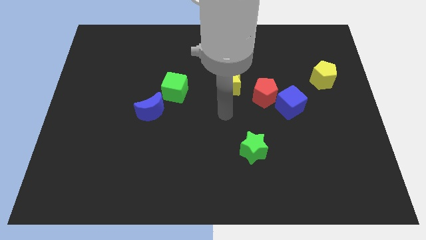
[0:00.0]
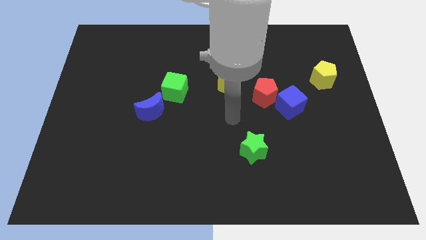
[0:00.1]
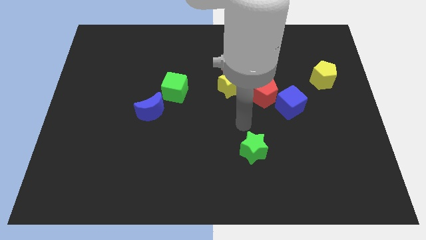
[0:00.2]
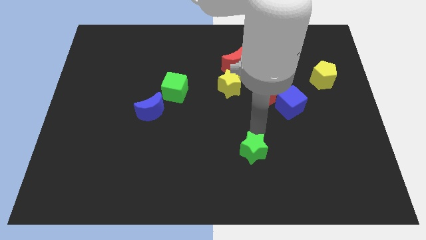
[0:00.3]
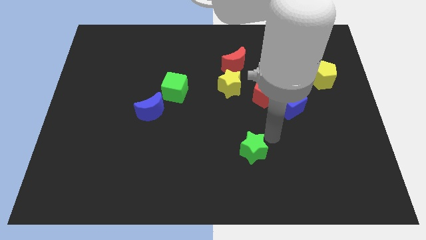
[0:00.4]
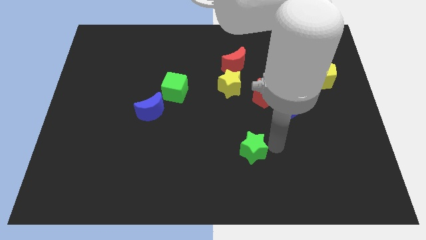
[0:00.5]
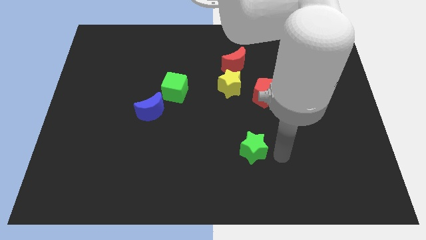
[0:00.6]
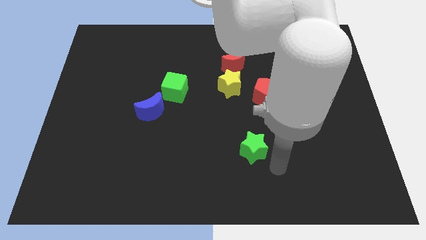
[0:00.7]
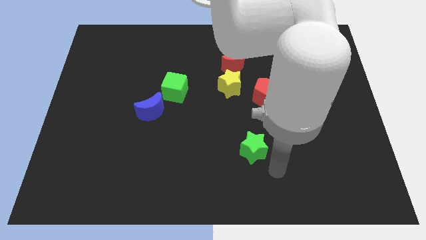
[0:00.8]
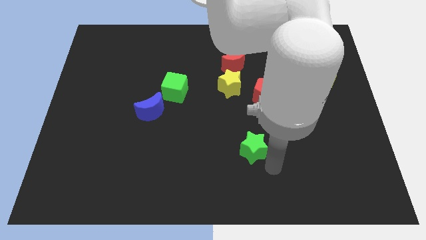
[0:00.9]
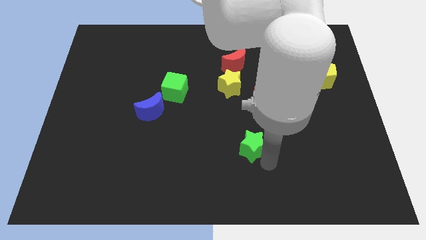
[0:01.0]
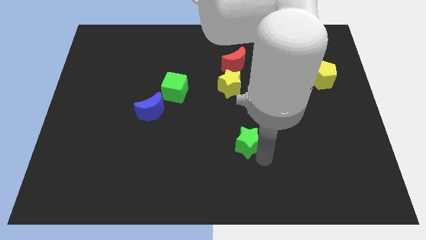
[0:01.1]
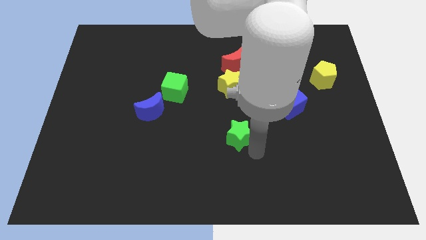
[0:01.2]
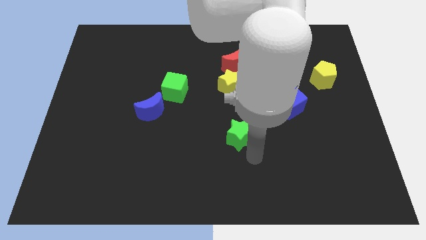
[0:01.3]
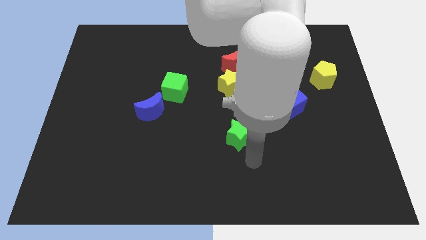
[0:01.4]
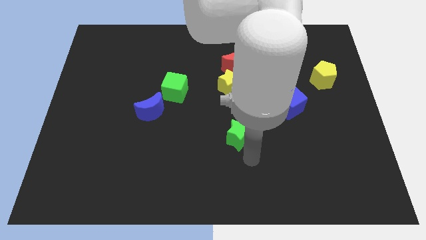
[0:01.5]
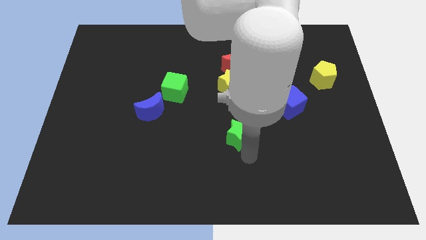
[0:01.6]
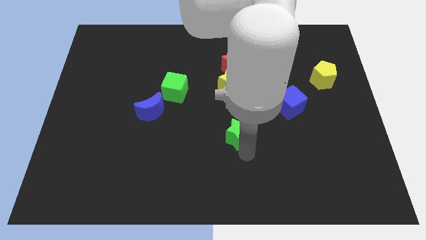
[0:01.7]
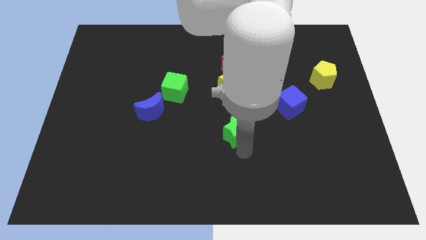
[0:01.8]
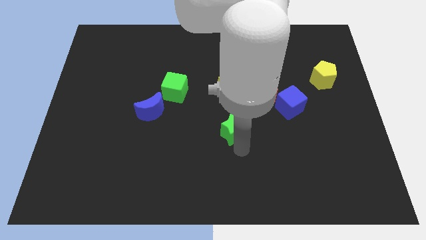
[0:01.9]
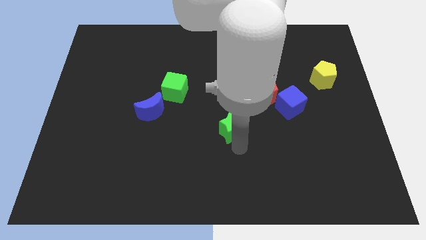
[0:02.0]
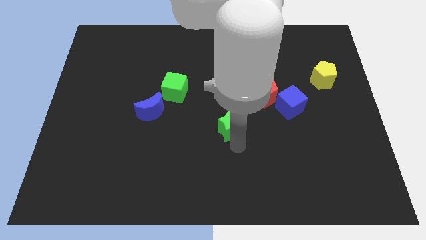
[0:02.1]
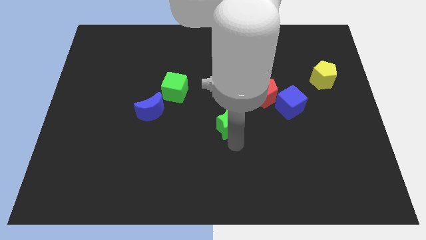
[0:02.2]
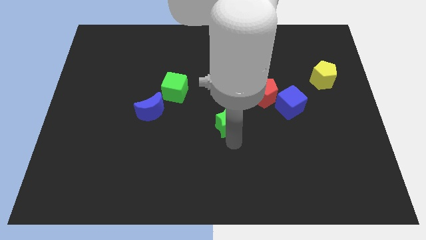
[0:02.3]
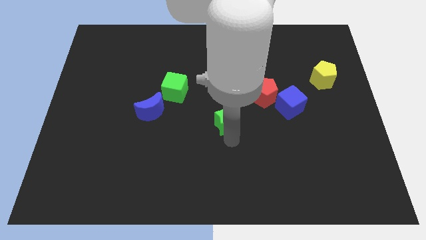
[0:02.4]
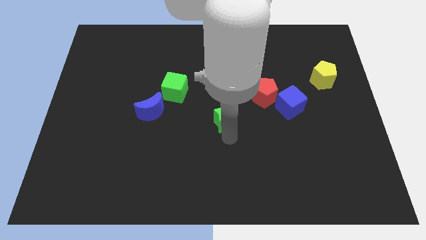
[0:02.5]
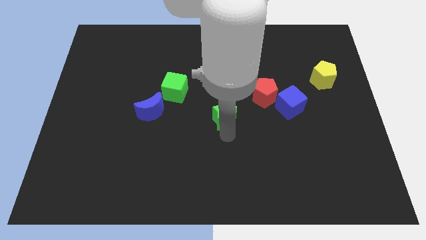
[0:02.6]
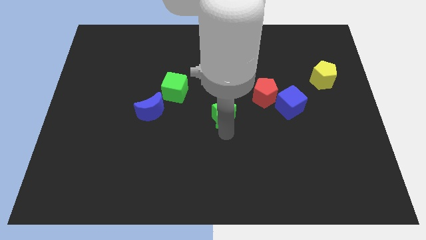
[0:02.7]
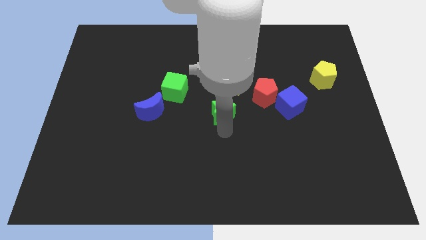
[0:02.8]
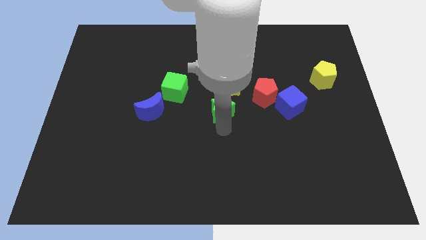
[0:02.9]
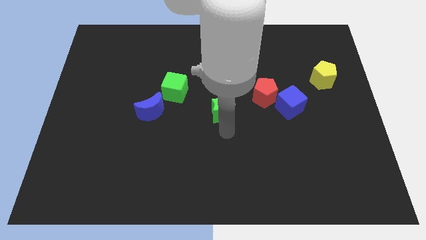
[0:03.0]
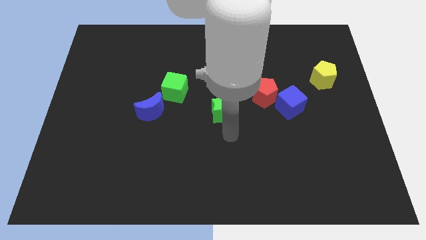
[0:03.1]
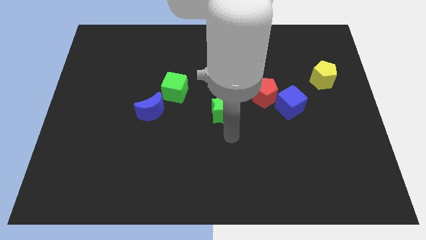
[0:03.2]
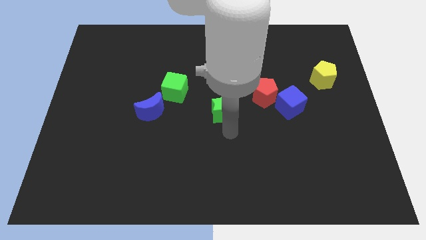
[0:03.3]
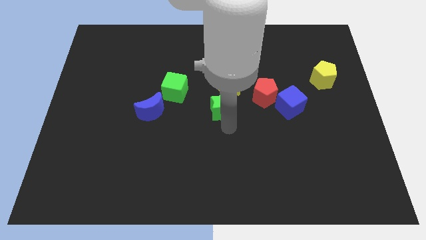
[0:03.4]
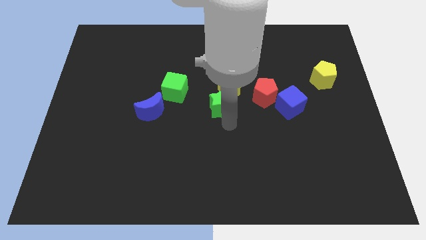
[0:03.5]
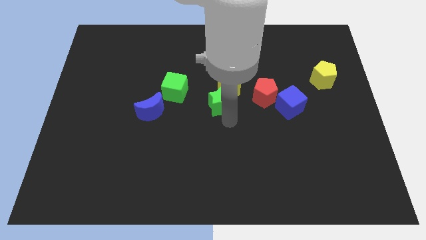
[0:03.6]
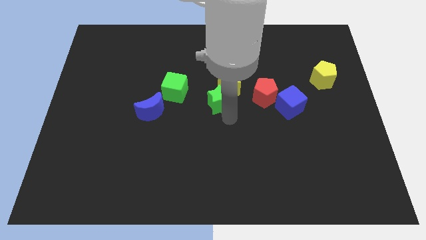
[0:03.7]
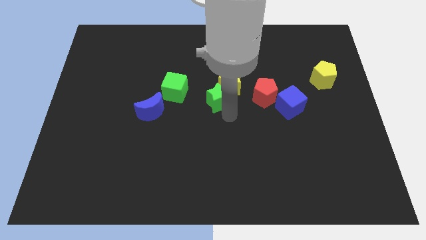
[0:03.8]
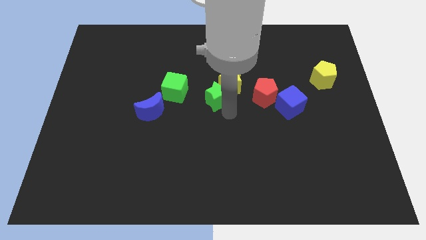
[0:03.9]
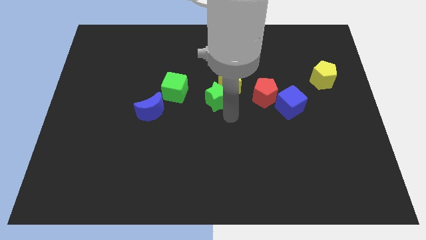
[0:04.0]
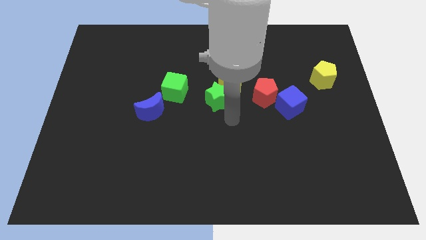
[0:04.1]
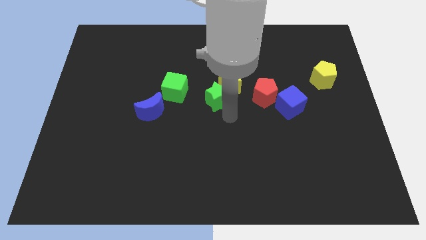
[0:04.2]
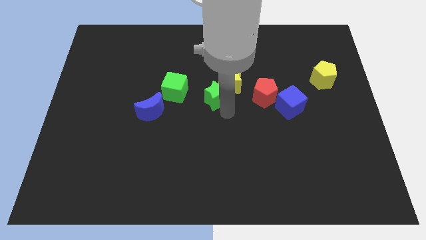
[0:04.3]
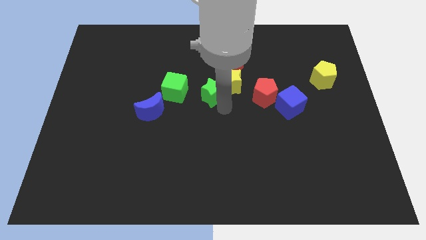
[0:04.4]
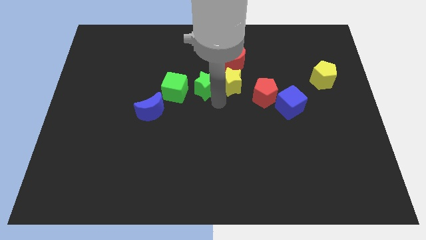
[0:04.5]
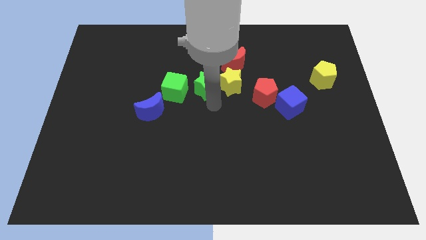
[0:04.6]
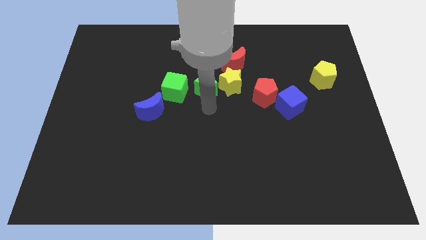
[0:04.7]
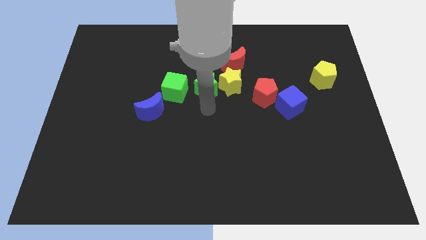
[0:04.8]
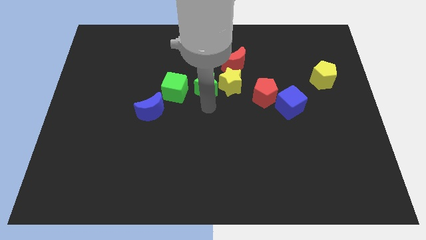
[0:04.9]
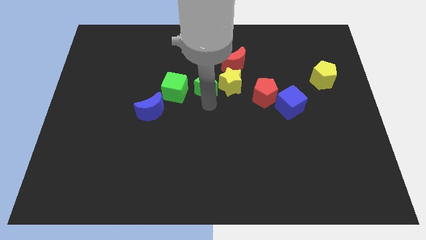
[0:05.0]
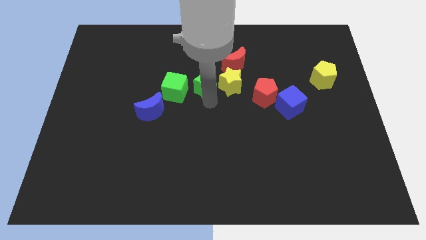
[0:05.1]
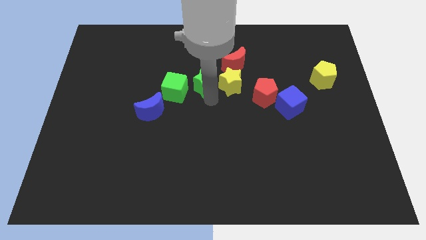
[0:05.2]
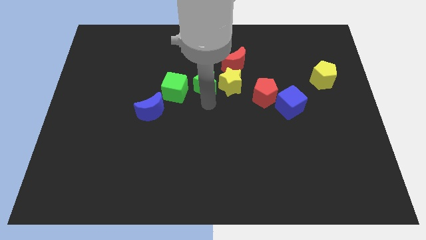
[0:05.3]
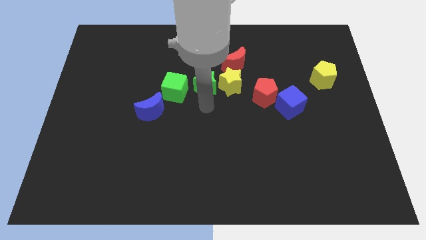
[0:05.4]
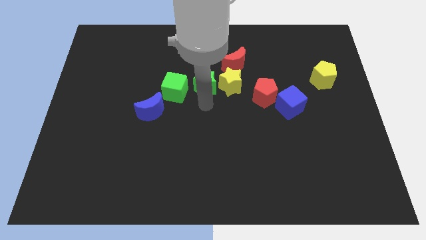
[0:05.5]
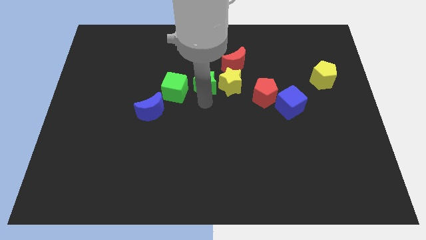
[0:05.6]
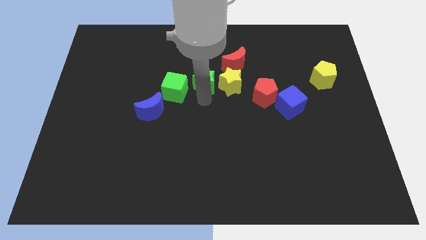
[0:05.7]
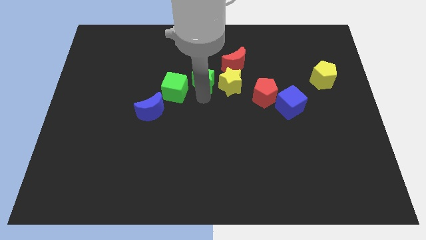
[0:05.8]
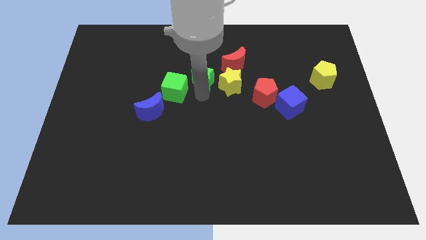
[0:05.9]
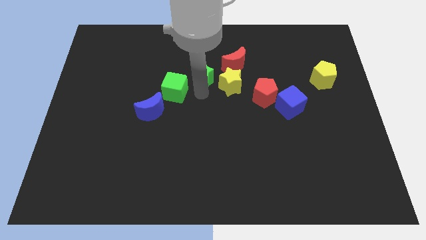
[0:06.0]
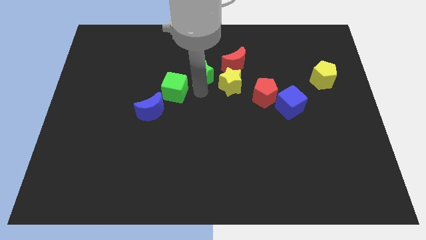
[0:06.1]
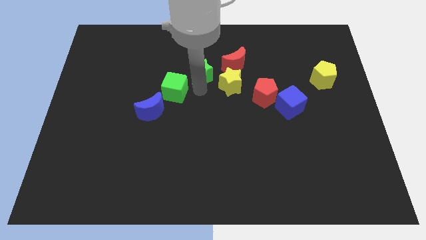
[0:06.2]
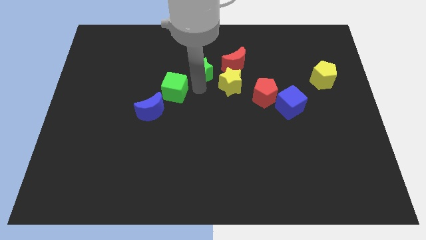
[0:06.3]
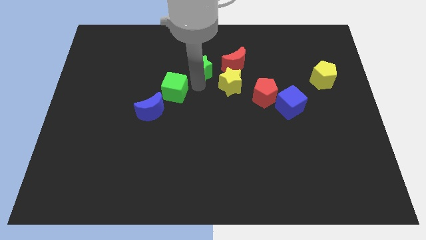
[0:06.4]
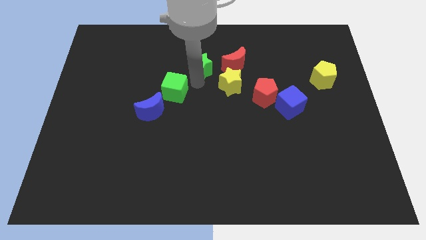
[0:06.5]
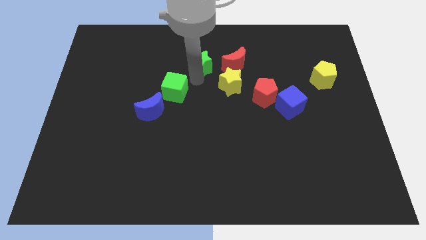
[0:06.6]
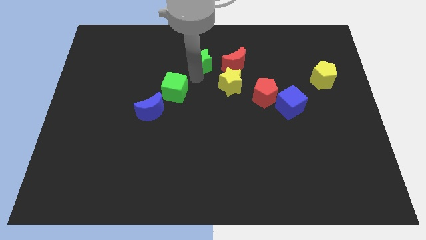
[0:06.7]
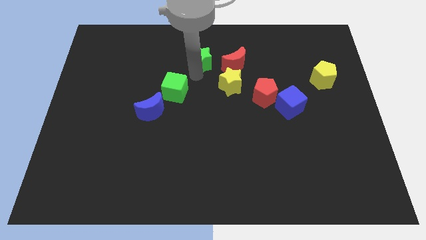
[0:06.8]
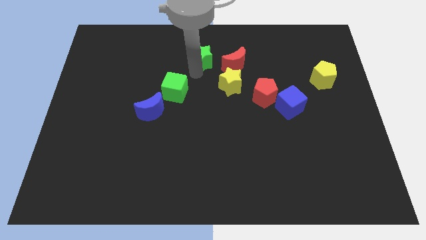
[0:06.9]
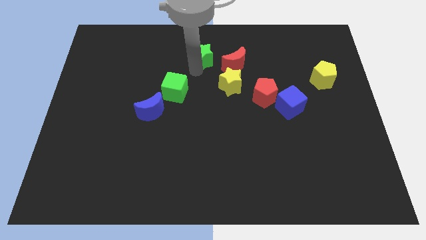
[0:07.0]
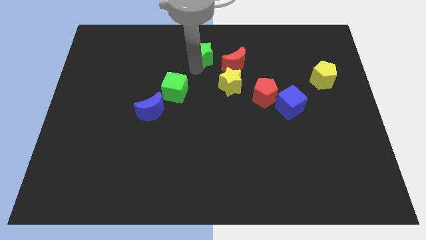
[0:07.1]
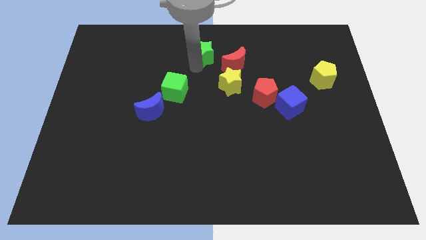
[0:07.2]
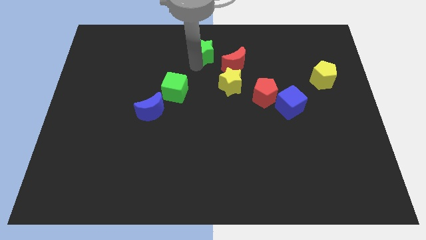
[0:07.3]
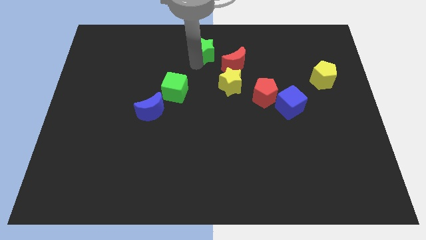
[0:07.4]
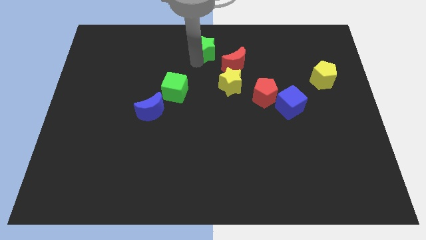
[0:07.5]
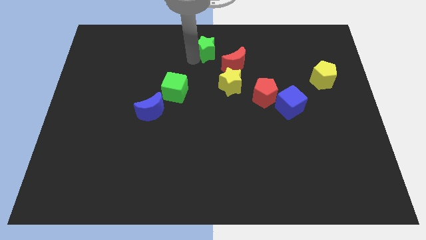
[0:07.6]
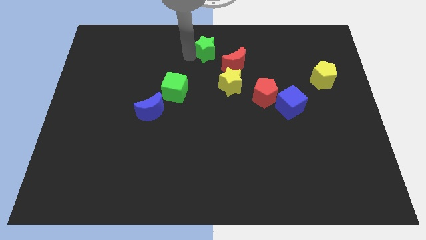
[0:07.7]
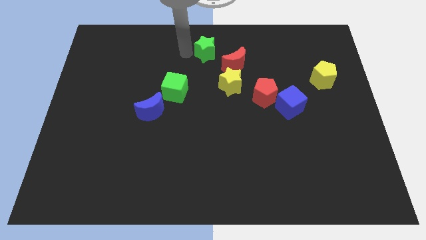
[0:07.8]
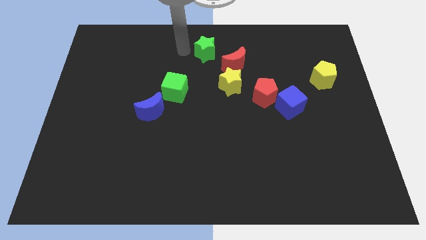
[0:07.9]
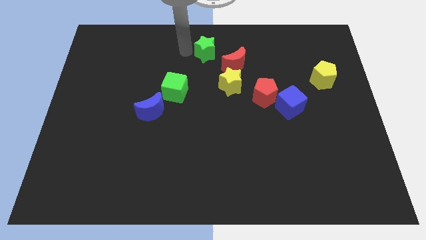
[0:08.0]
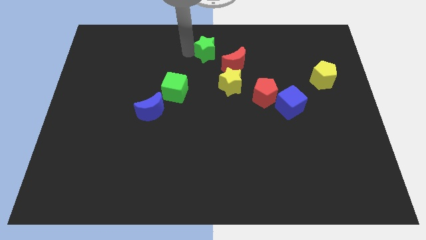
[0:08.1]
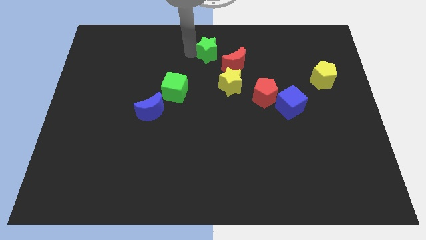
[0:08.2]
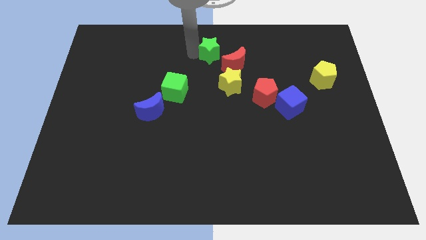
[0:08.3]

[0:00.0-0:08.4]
push the green star above the yellow star
